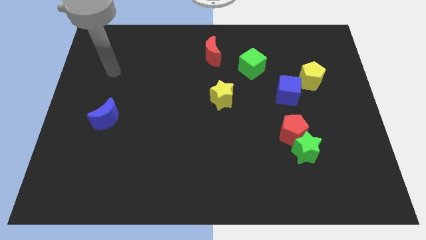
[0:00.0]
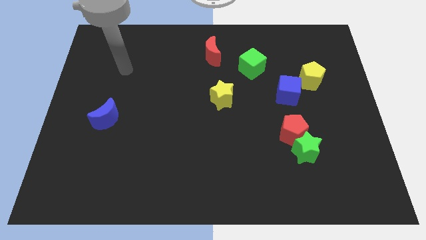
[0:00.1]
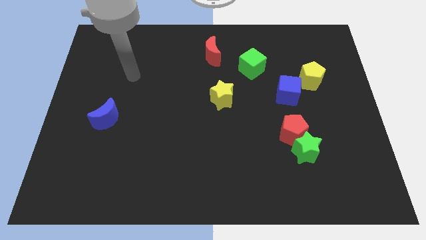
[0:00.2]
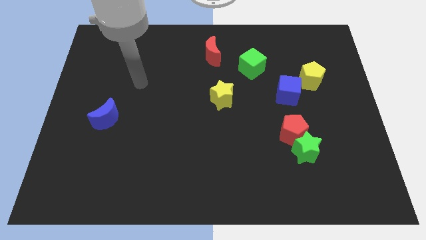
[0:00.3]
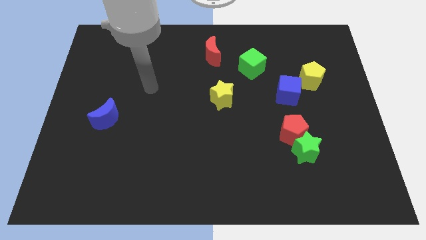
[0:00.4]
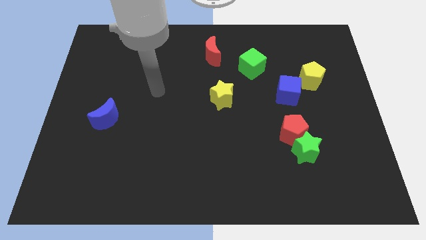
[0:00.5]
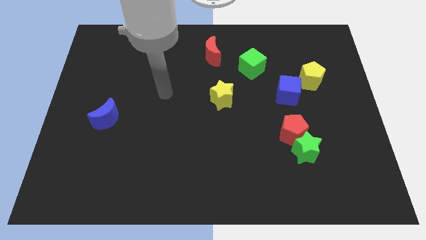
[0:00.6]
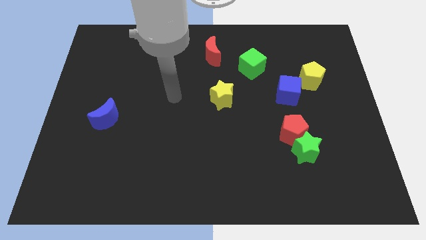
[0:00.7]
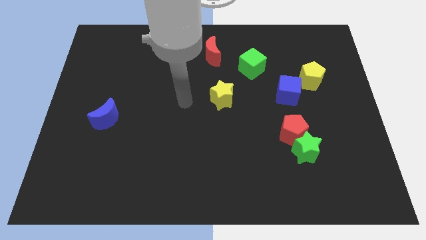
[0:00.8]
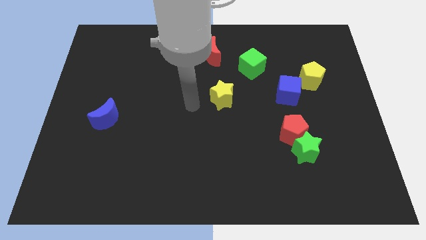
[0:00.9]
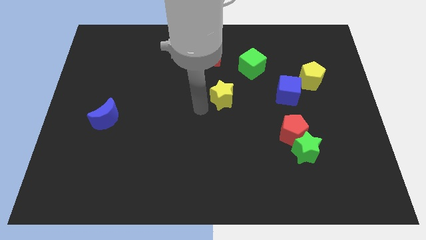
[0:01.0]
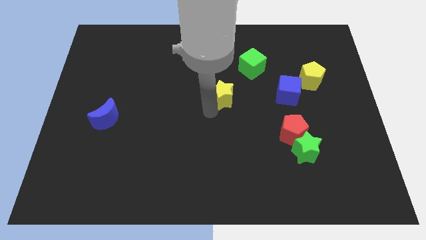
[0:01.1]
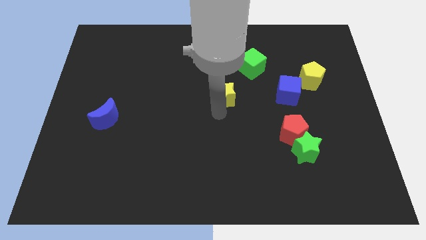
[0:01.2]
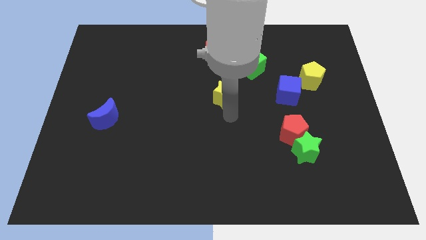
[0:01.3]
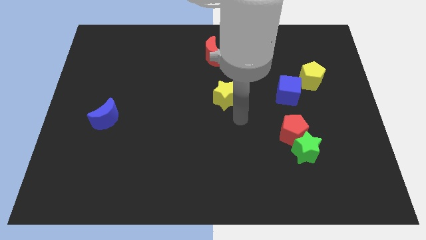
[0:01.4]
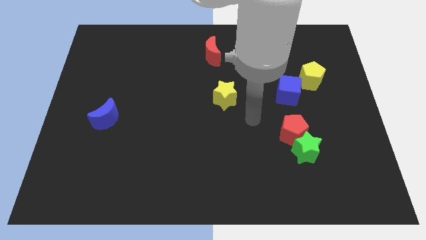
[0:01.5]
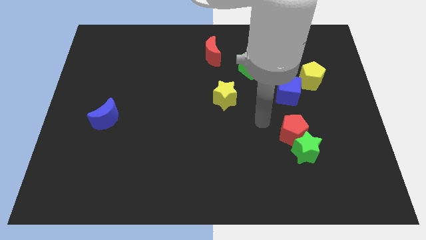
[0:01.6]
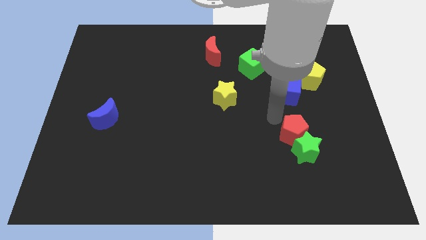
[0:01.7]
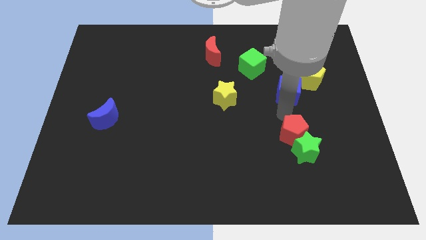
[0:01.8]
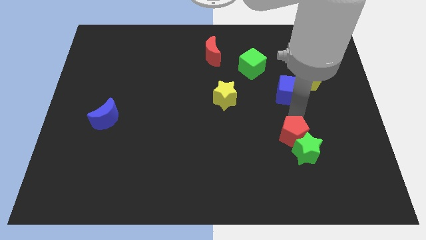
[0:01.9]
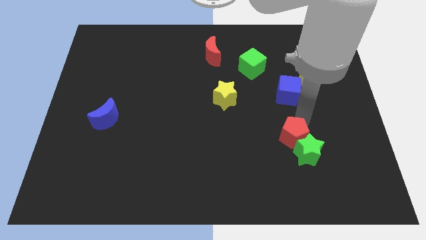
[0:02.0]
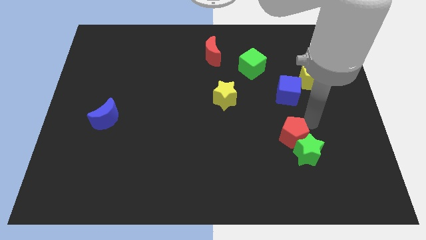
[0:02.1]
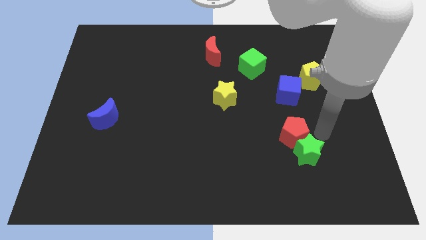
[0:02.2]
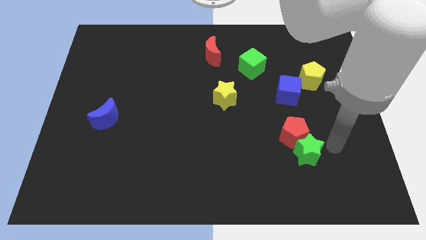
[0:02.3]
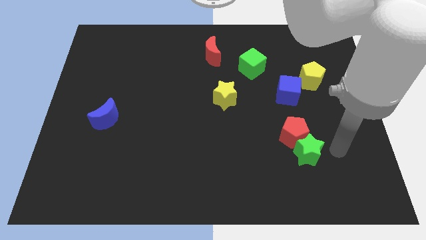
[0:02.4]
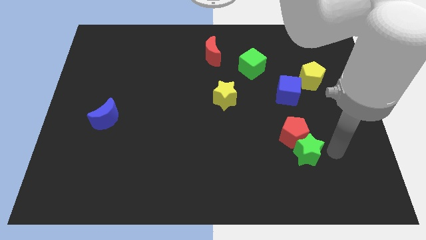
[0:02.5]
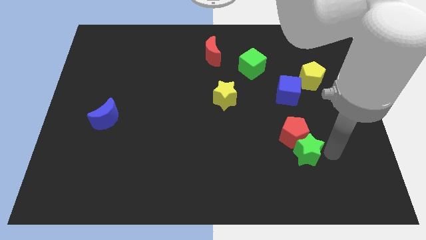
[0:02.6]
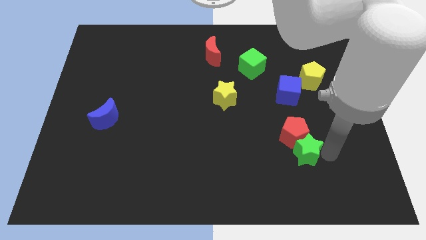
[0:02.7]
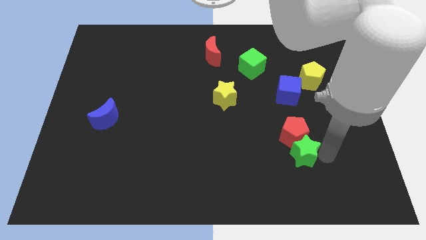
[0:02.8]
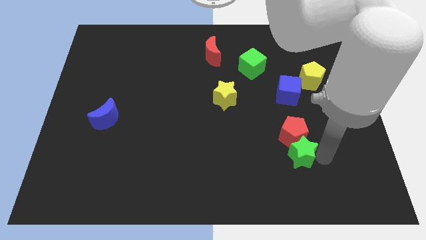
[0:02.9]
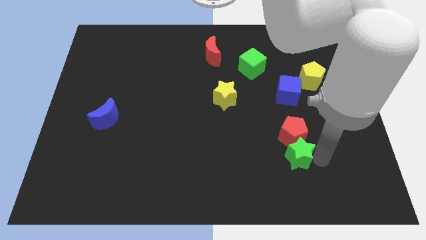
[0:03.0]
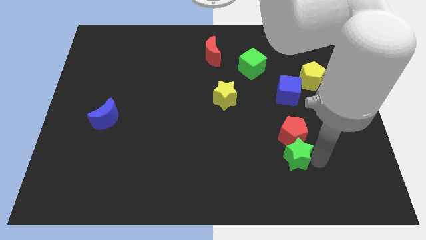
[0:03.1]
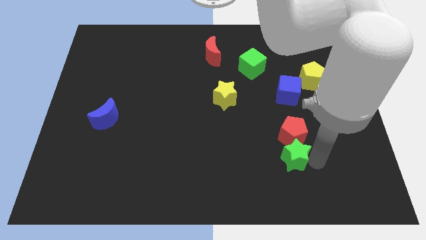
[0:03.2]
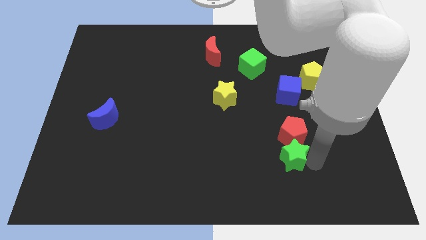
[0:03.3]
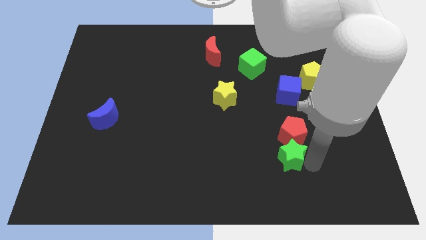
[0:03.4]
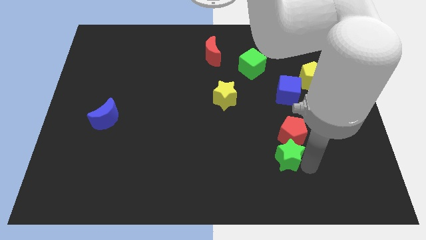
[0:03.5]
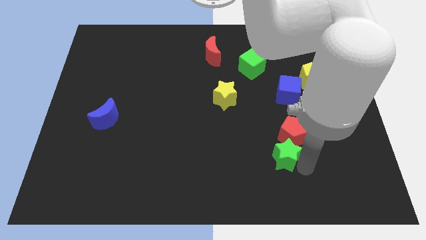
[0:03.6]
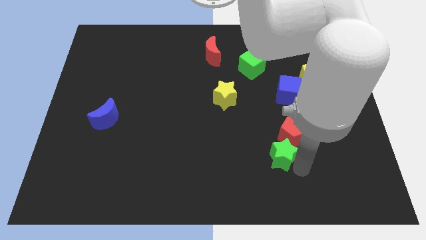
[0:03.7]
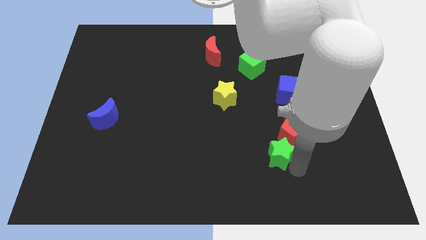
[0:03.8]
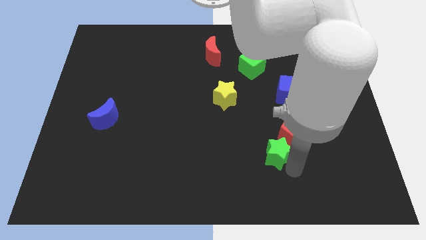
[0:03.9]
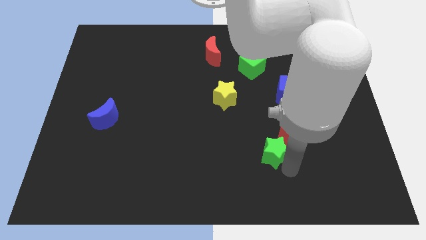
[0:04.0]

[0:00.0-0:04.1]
move the green star slightly left

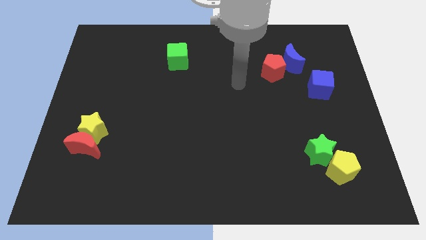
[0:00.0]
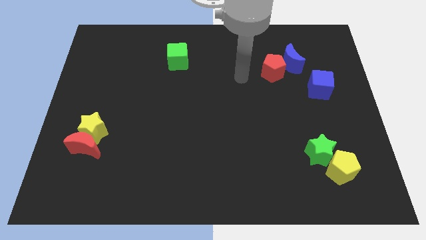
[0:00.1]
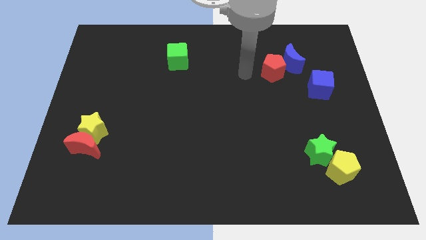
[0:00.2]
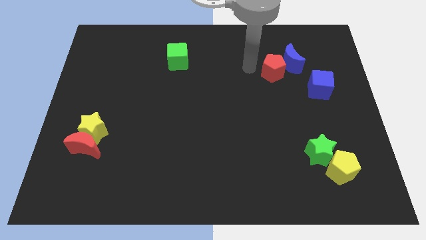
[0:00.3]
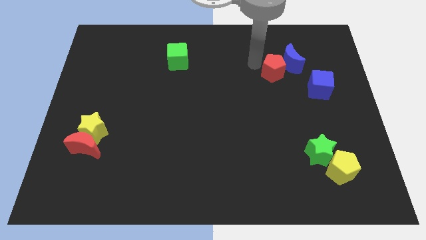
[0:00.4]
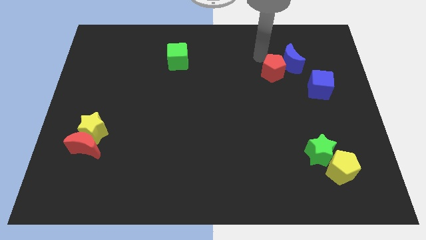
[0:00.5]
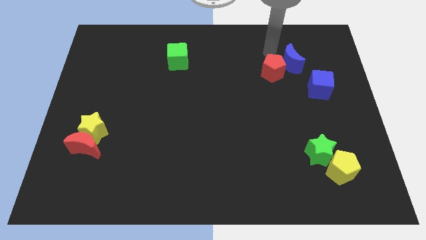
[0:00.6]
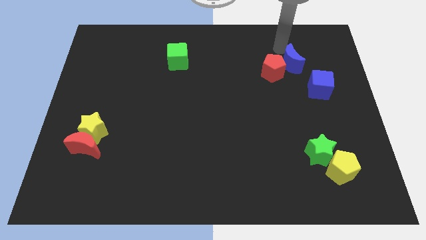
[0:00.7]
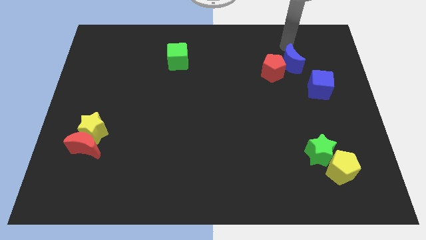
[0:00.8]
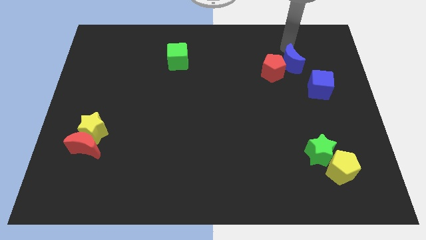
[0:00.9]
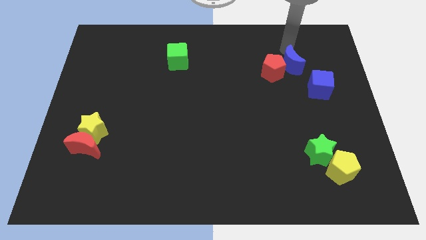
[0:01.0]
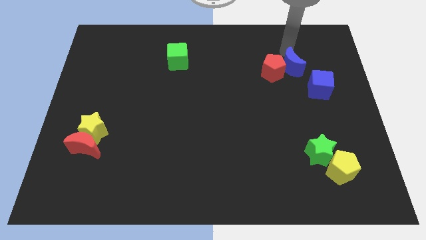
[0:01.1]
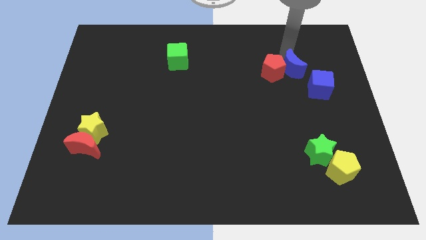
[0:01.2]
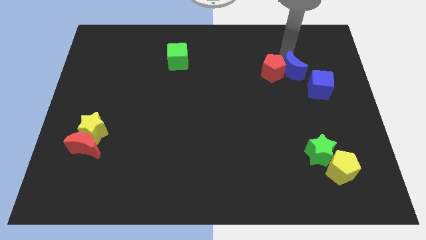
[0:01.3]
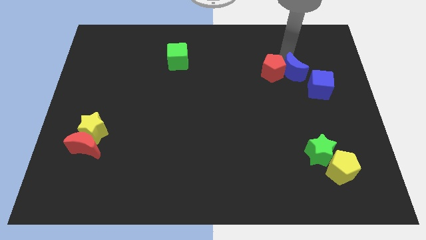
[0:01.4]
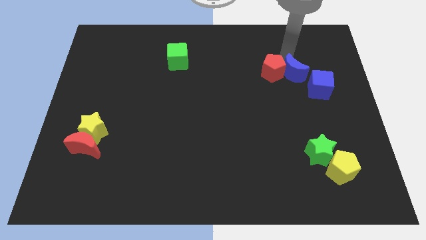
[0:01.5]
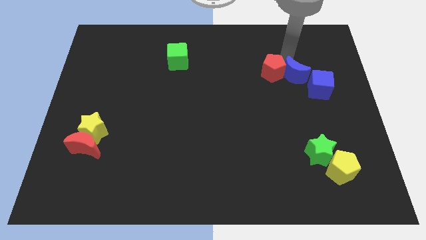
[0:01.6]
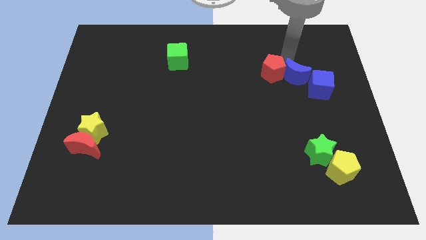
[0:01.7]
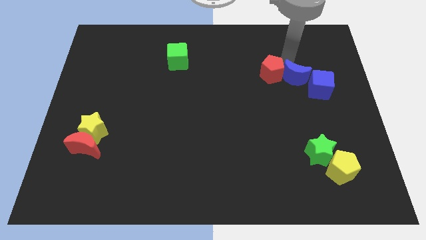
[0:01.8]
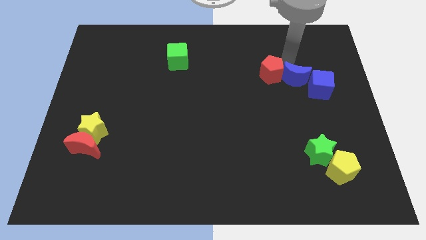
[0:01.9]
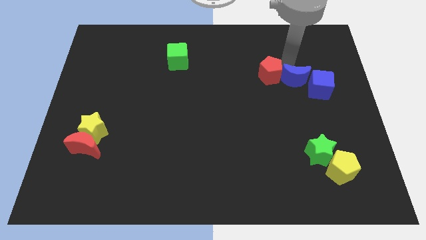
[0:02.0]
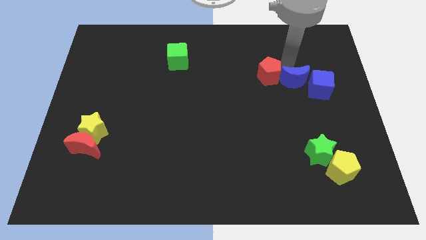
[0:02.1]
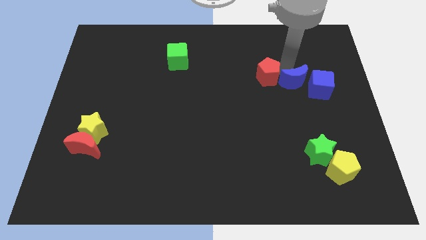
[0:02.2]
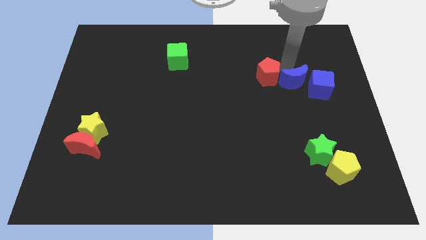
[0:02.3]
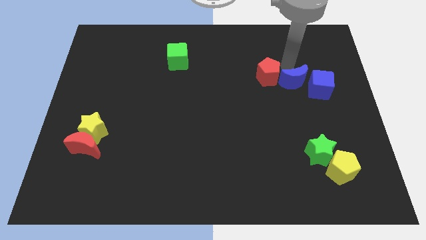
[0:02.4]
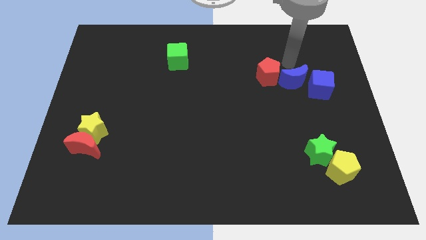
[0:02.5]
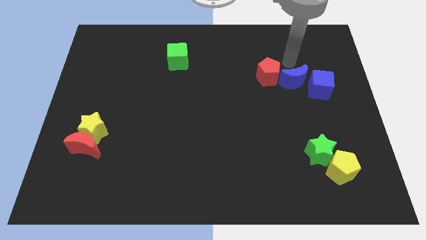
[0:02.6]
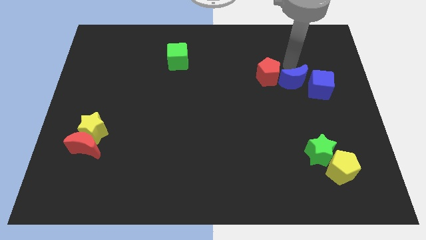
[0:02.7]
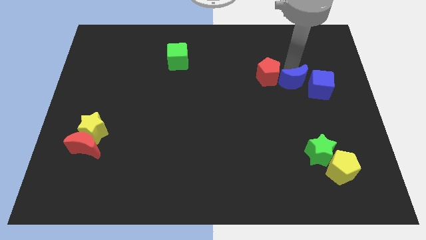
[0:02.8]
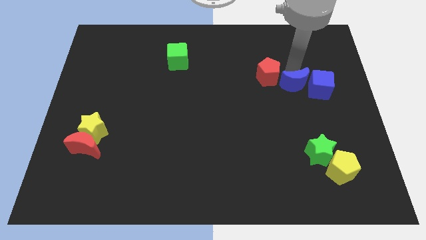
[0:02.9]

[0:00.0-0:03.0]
slightly push the blue moon down

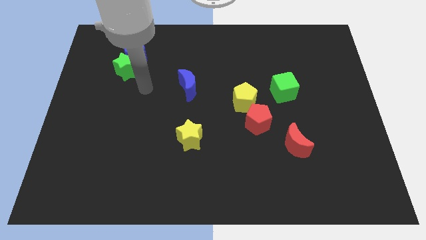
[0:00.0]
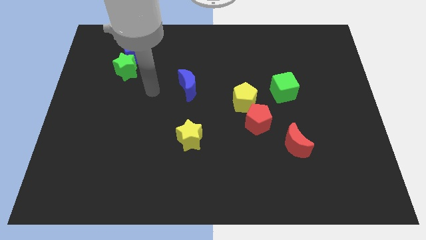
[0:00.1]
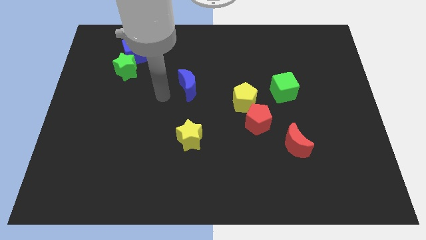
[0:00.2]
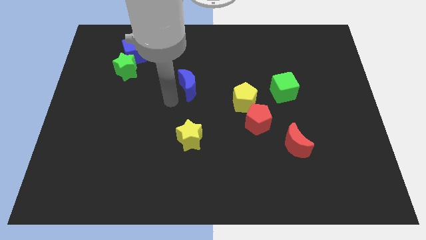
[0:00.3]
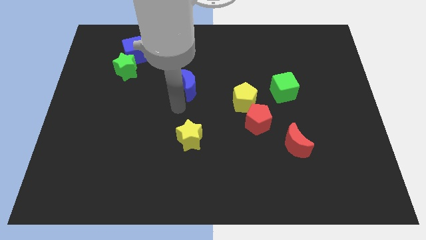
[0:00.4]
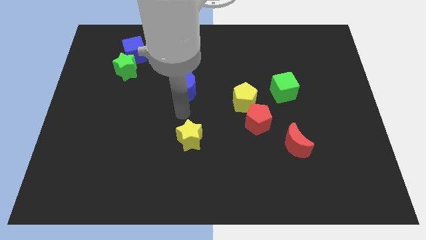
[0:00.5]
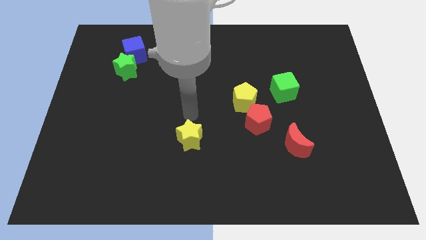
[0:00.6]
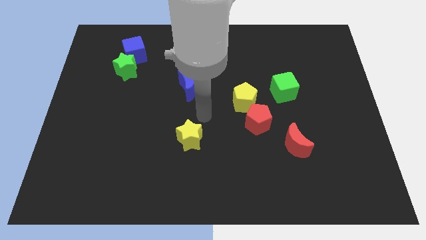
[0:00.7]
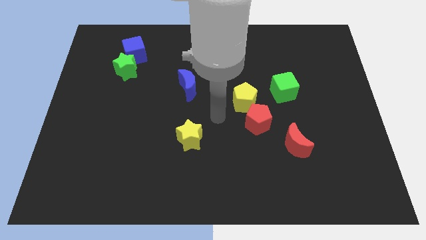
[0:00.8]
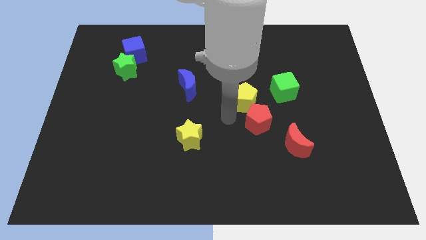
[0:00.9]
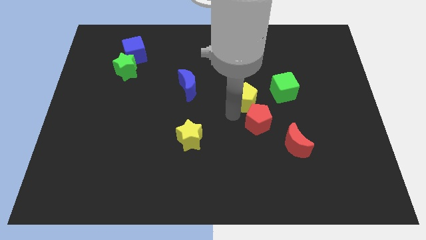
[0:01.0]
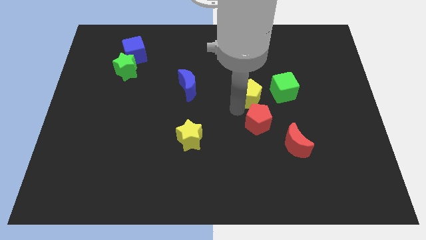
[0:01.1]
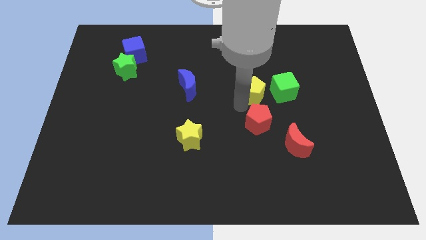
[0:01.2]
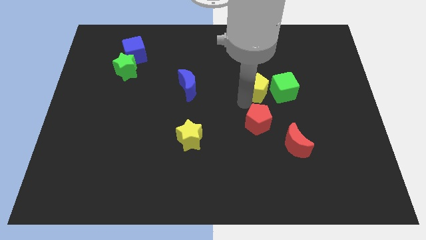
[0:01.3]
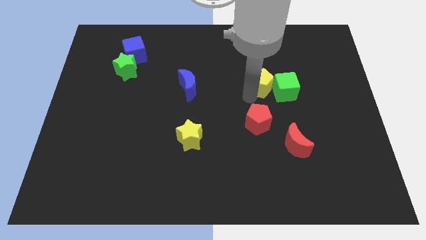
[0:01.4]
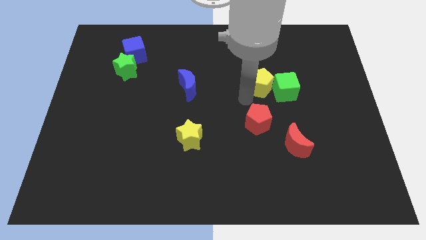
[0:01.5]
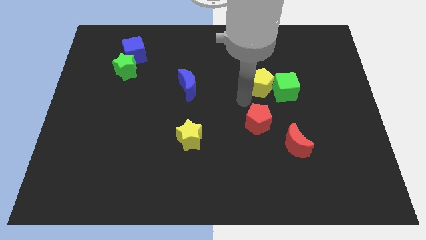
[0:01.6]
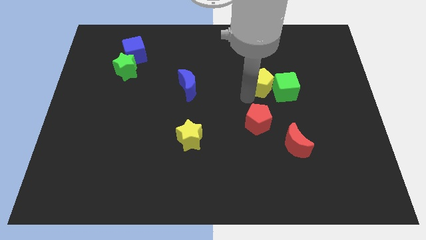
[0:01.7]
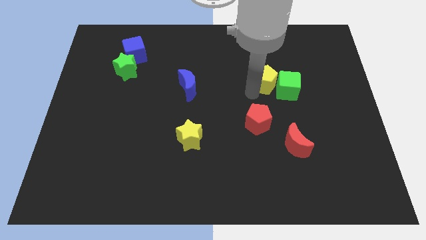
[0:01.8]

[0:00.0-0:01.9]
move the yellow pentagon diagonally upwards and to the right a little
